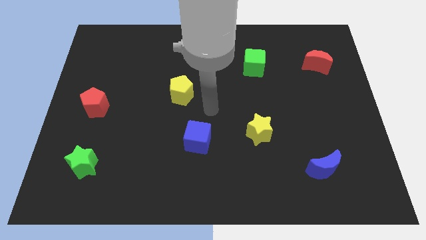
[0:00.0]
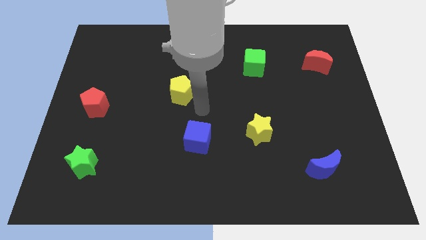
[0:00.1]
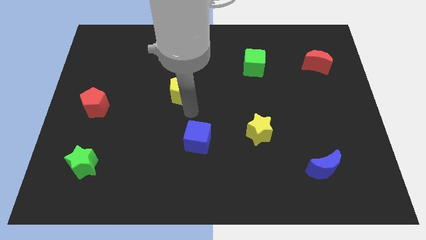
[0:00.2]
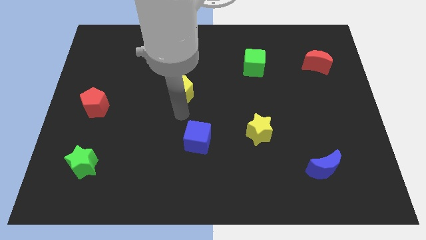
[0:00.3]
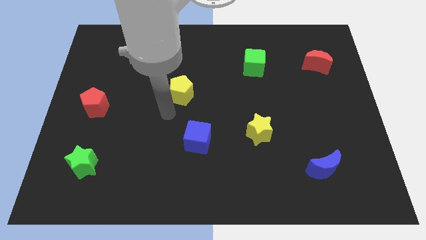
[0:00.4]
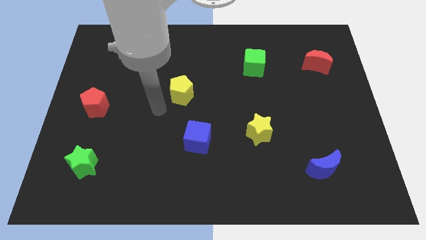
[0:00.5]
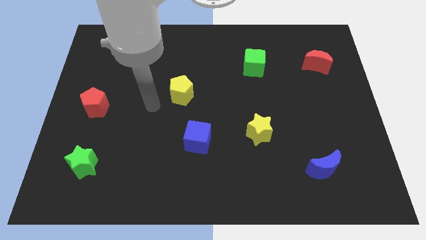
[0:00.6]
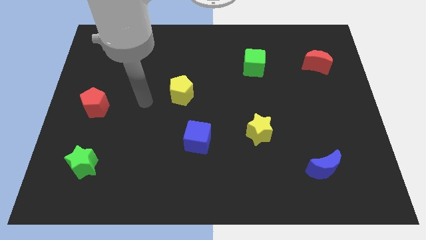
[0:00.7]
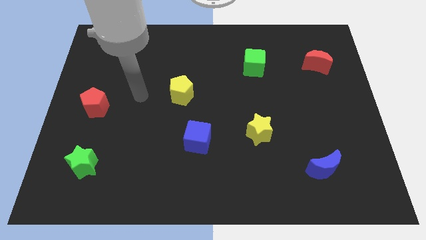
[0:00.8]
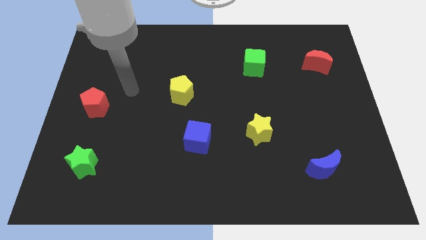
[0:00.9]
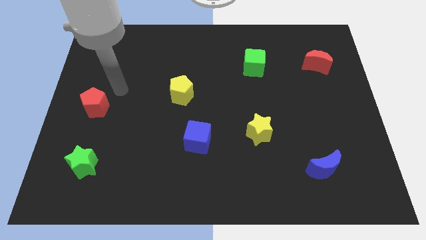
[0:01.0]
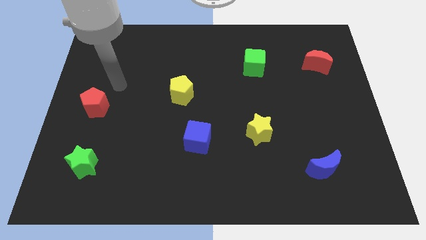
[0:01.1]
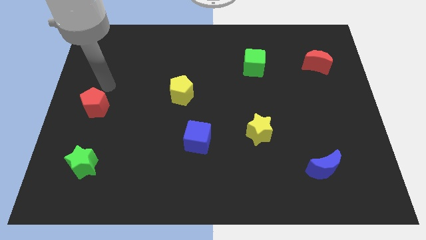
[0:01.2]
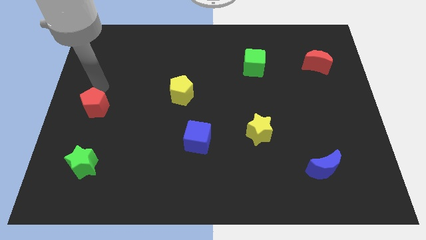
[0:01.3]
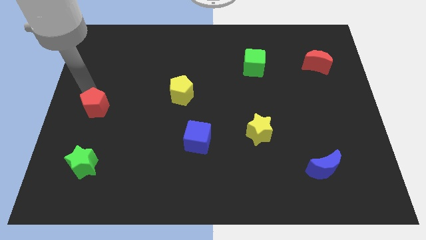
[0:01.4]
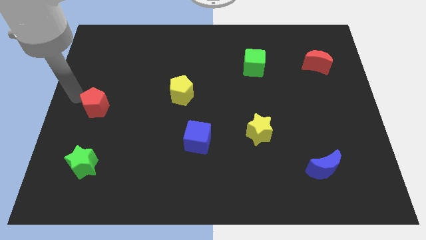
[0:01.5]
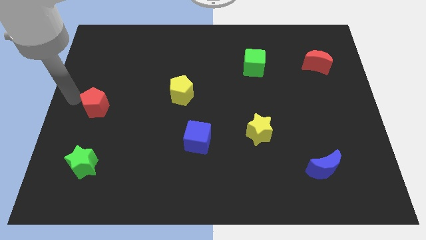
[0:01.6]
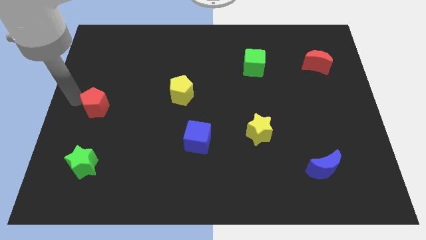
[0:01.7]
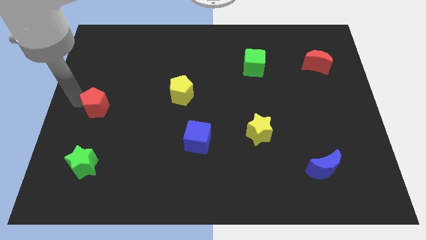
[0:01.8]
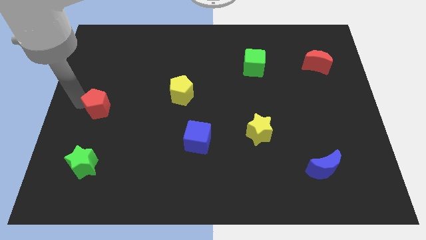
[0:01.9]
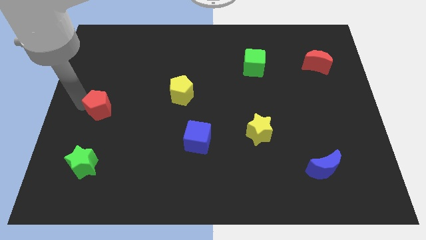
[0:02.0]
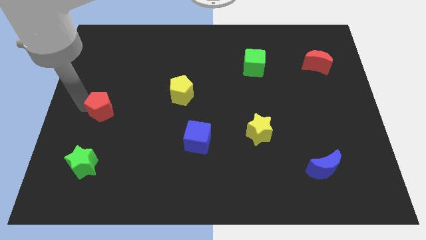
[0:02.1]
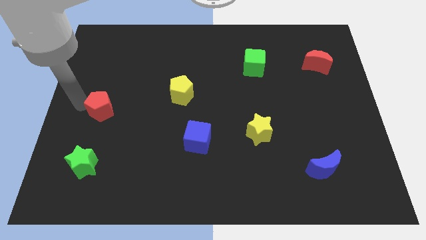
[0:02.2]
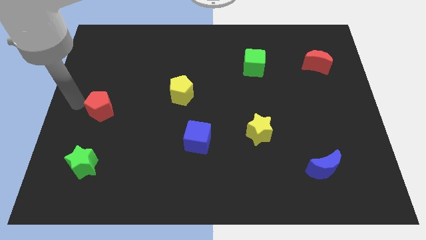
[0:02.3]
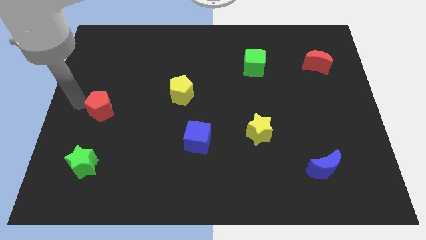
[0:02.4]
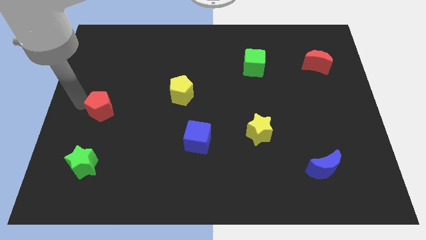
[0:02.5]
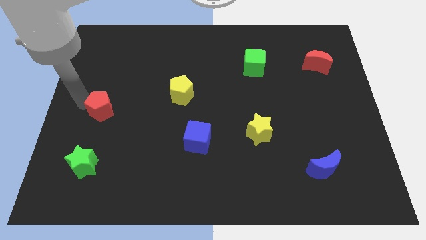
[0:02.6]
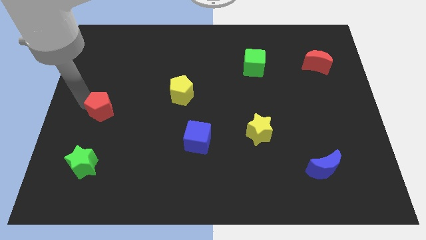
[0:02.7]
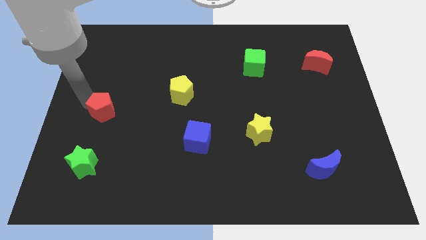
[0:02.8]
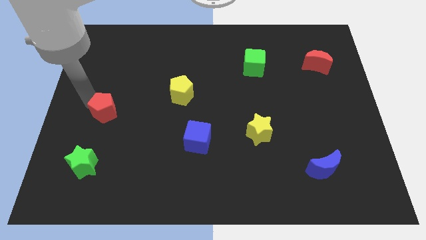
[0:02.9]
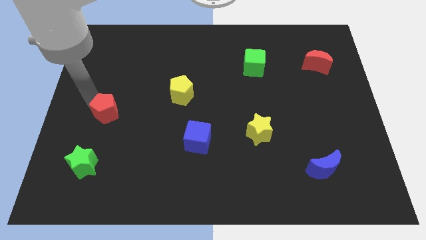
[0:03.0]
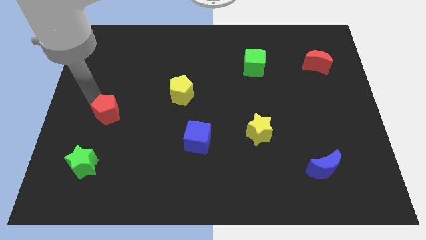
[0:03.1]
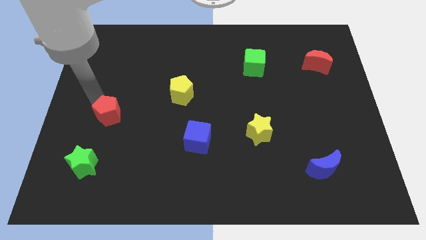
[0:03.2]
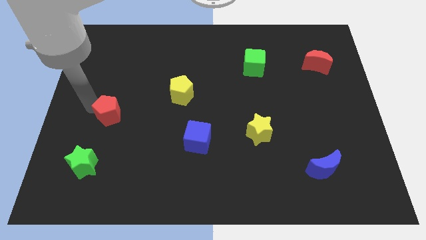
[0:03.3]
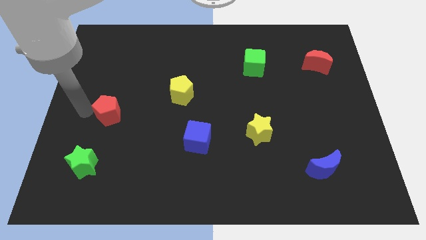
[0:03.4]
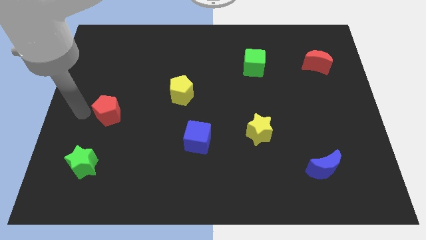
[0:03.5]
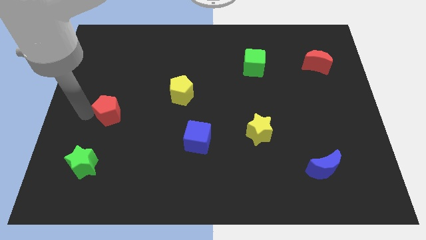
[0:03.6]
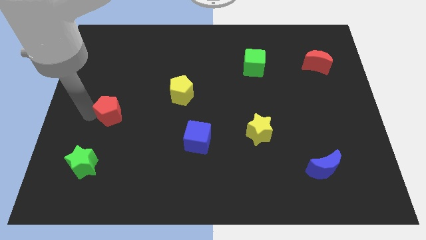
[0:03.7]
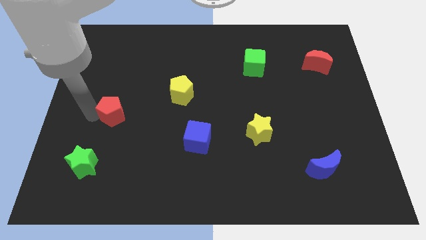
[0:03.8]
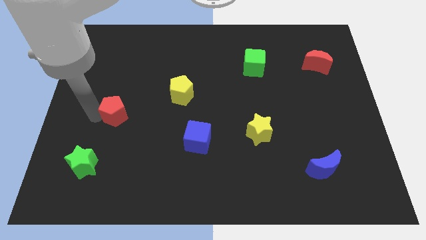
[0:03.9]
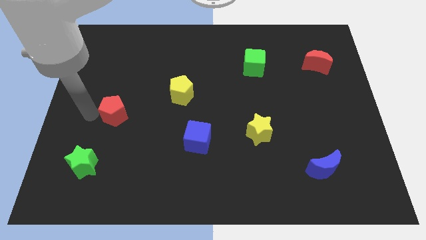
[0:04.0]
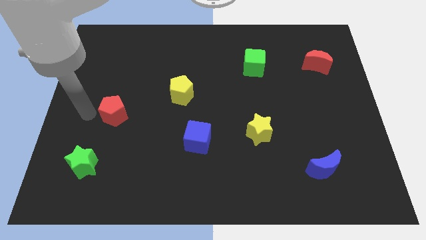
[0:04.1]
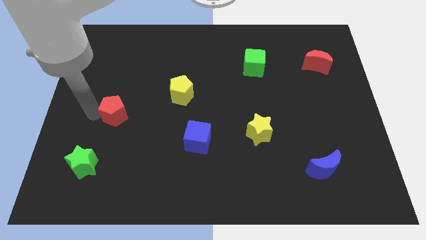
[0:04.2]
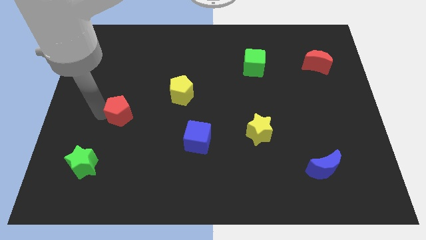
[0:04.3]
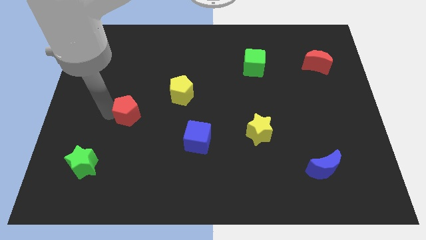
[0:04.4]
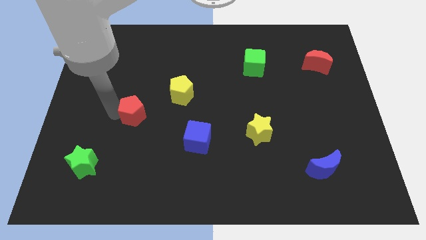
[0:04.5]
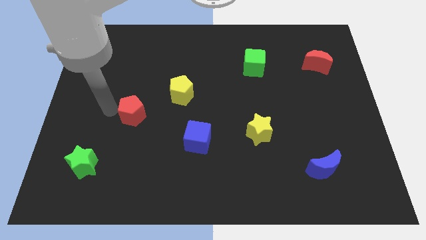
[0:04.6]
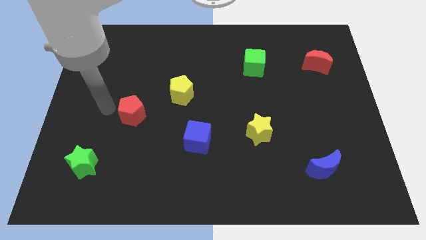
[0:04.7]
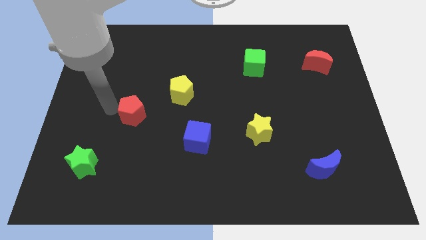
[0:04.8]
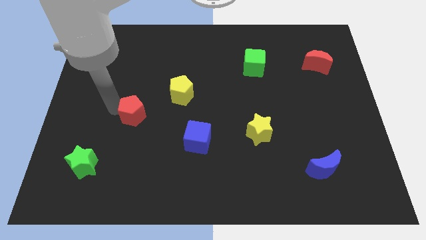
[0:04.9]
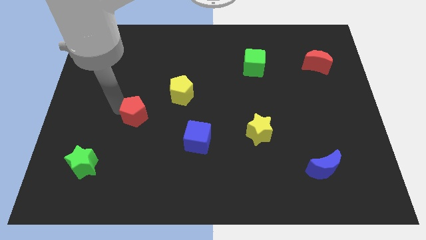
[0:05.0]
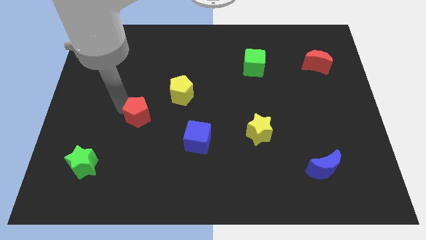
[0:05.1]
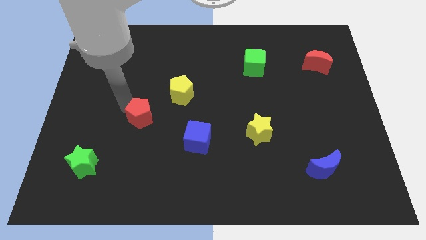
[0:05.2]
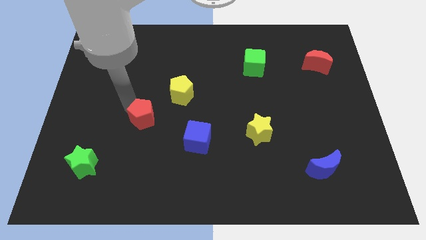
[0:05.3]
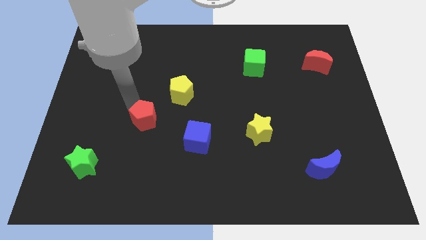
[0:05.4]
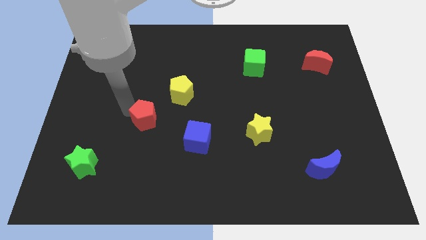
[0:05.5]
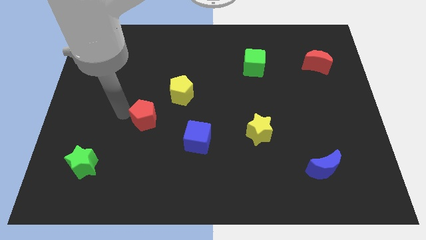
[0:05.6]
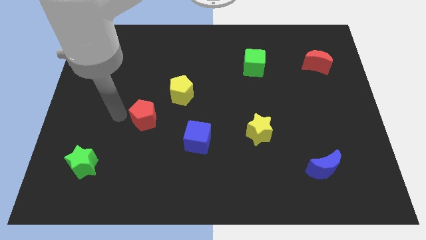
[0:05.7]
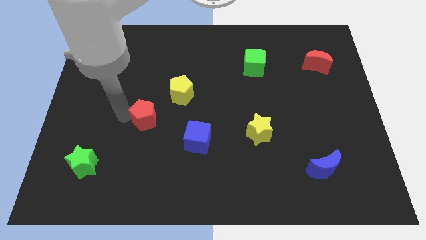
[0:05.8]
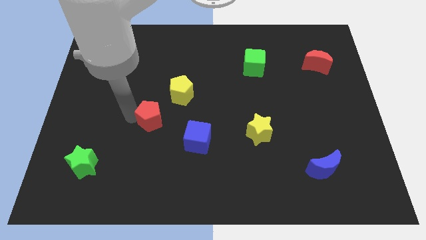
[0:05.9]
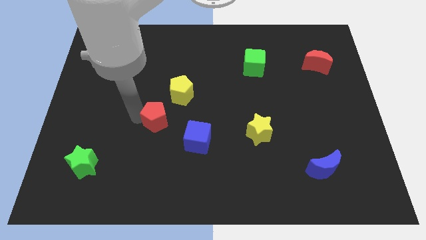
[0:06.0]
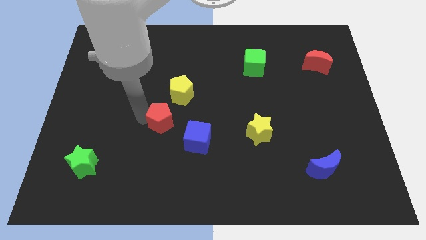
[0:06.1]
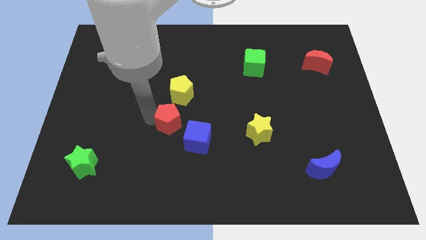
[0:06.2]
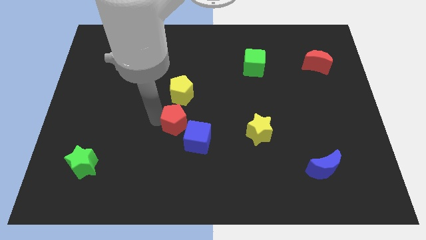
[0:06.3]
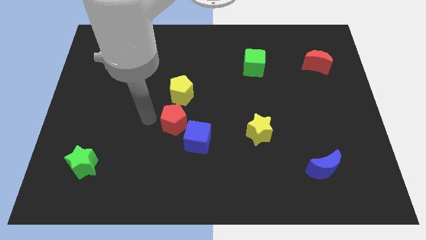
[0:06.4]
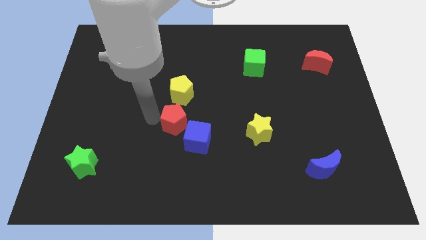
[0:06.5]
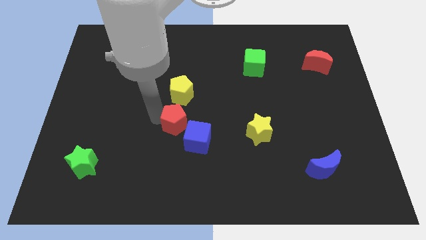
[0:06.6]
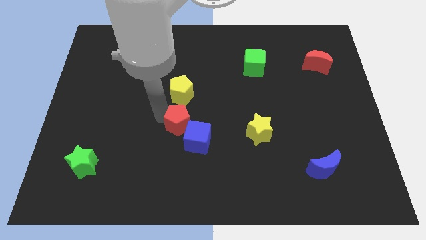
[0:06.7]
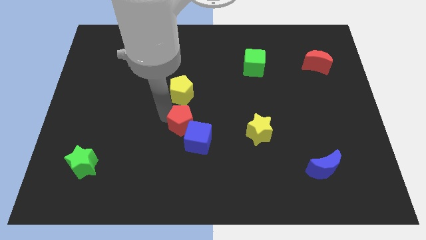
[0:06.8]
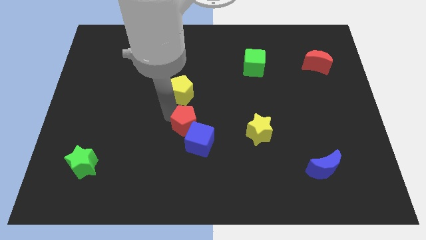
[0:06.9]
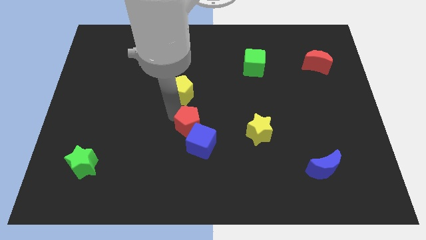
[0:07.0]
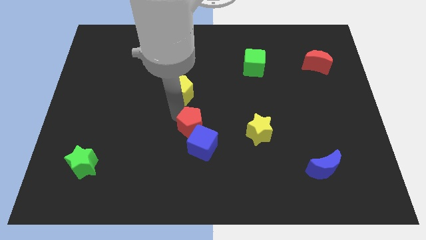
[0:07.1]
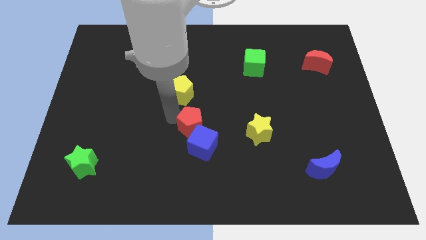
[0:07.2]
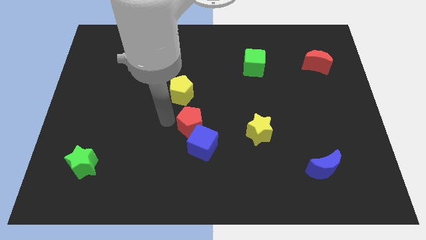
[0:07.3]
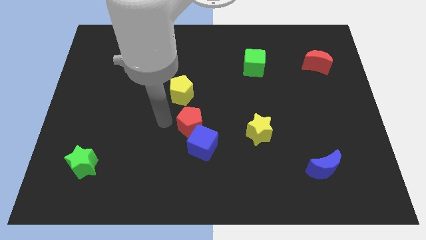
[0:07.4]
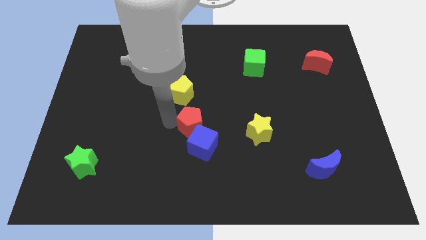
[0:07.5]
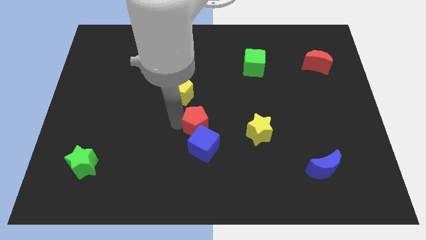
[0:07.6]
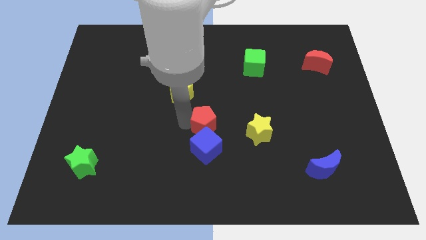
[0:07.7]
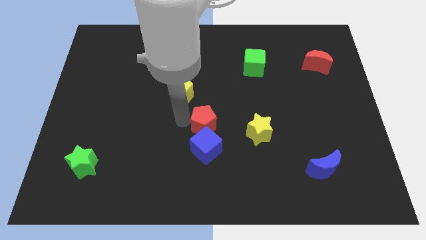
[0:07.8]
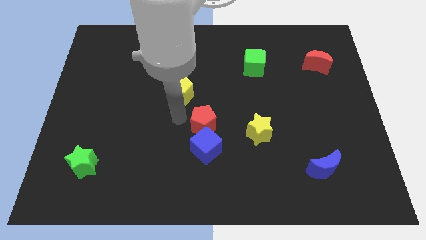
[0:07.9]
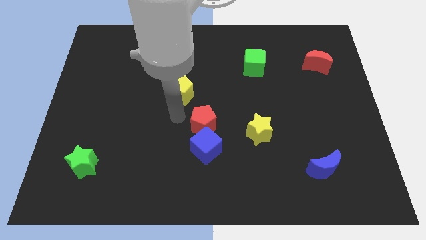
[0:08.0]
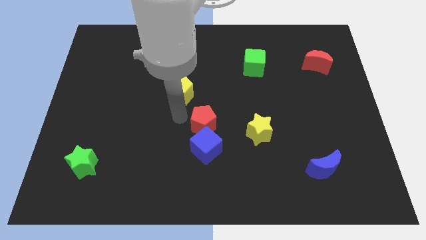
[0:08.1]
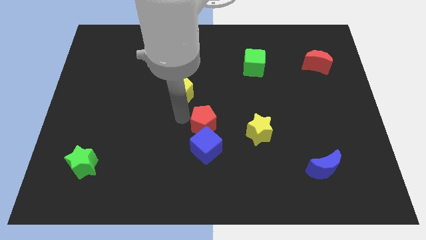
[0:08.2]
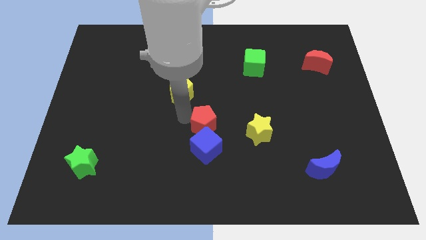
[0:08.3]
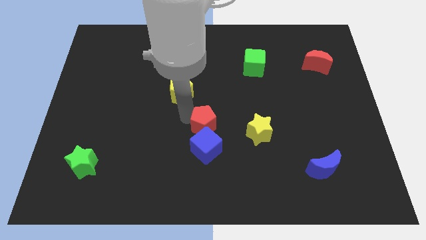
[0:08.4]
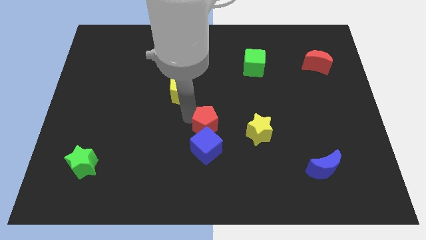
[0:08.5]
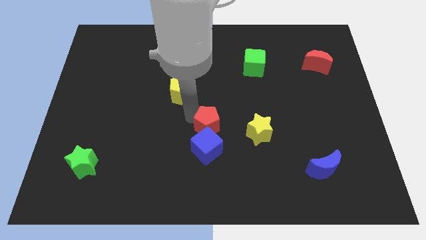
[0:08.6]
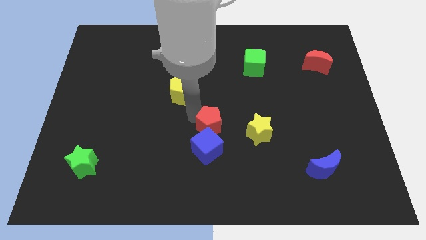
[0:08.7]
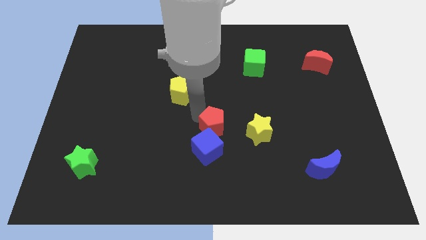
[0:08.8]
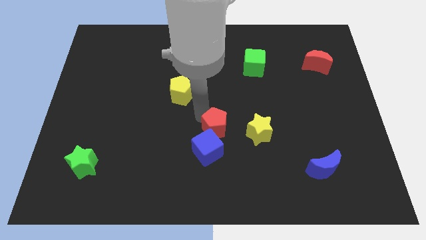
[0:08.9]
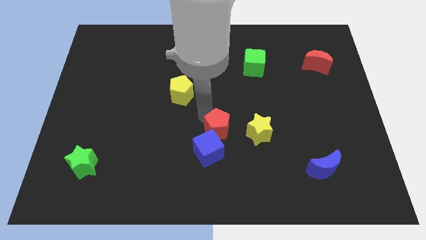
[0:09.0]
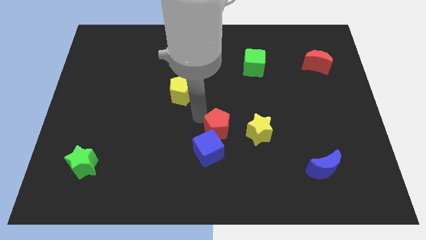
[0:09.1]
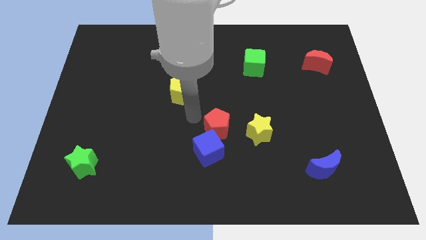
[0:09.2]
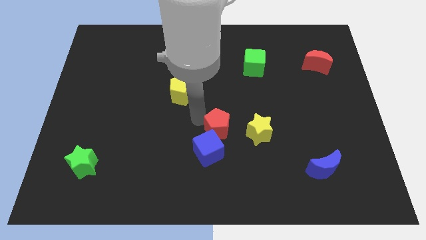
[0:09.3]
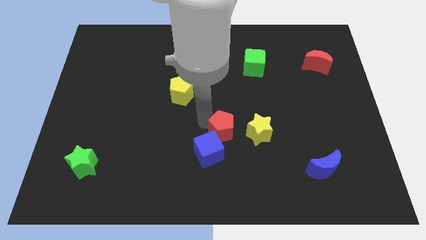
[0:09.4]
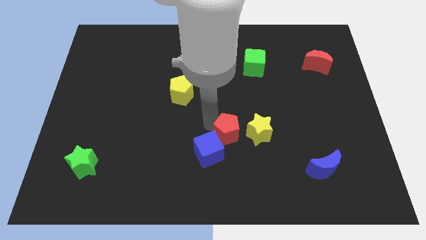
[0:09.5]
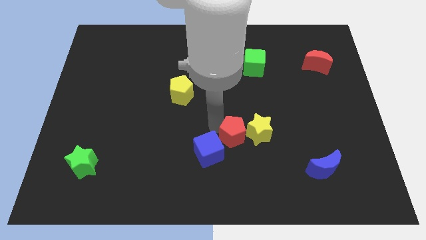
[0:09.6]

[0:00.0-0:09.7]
put the red pentagon close to the yellow star
